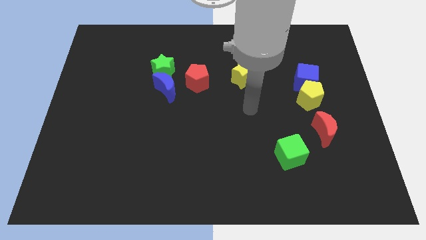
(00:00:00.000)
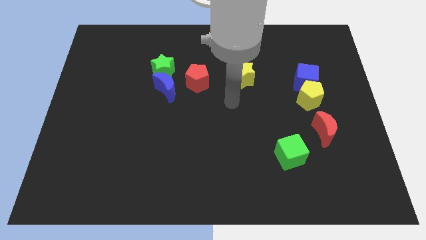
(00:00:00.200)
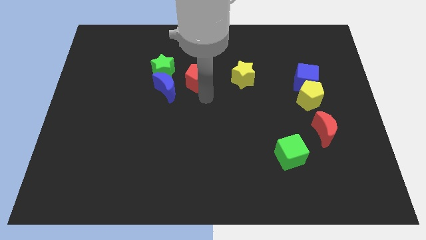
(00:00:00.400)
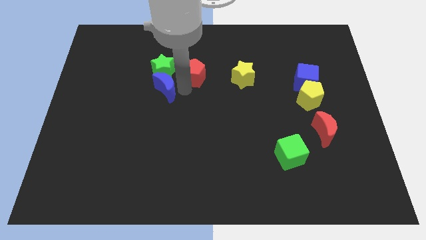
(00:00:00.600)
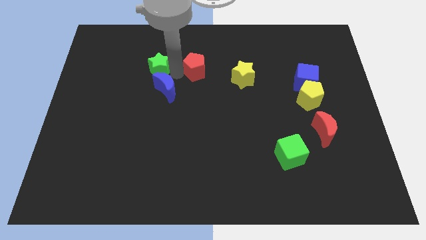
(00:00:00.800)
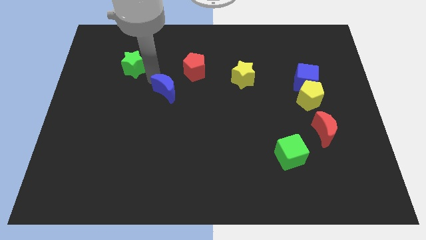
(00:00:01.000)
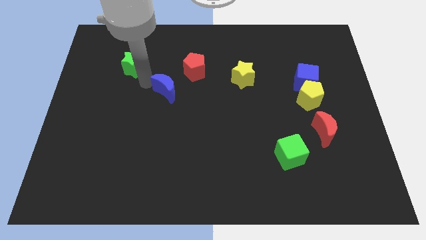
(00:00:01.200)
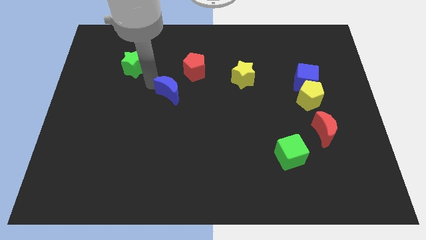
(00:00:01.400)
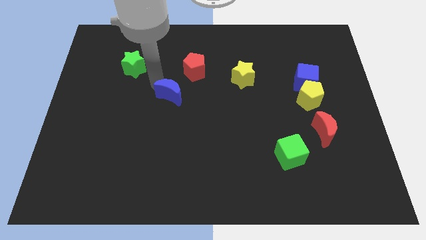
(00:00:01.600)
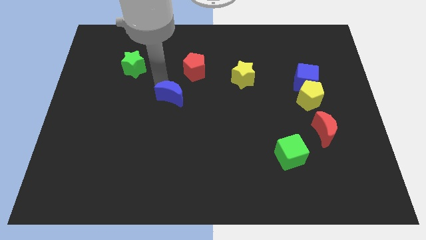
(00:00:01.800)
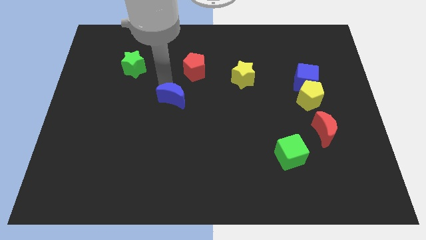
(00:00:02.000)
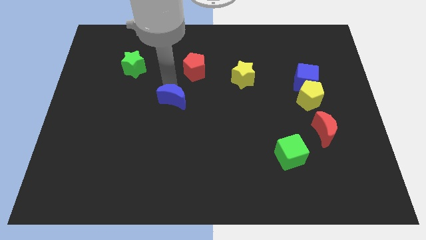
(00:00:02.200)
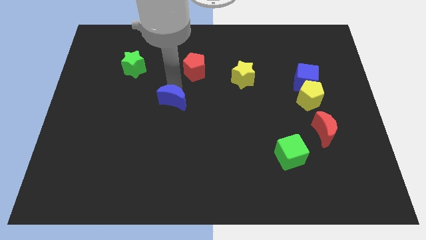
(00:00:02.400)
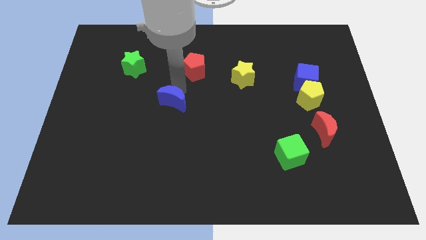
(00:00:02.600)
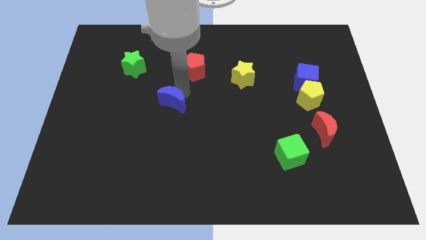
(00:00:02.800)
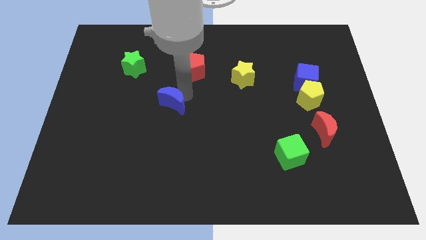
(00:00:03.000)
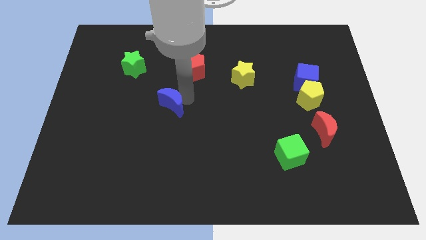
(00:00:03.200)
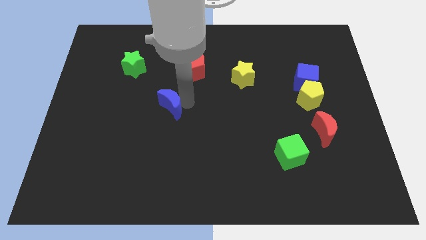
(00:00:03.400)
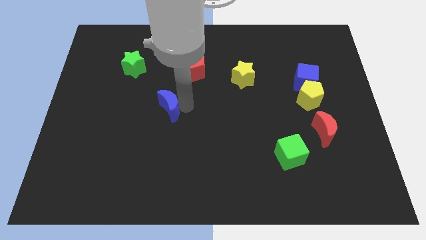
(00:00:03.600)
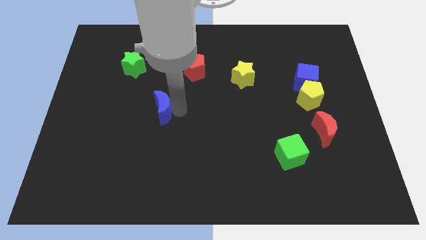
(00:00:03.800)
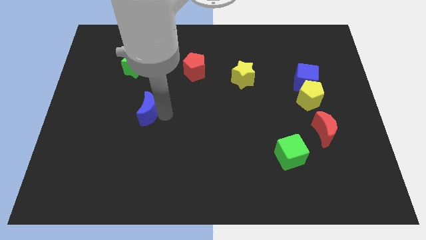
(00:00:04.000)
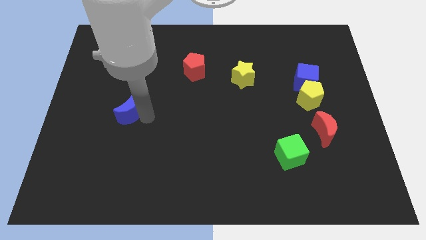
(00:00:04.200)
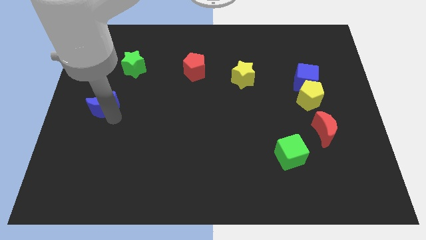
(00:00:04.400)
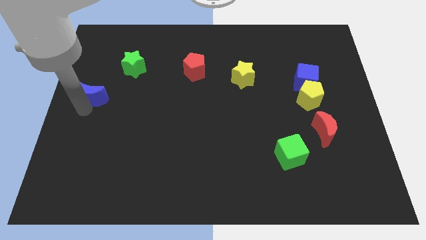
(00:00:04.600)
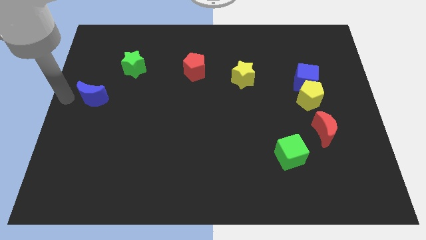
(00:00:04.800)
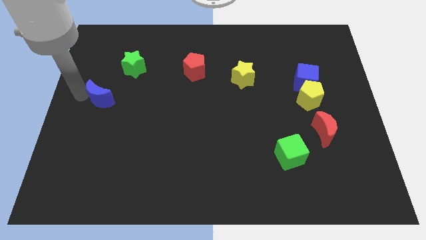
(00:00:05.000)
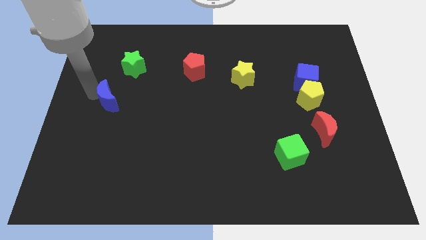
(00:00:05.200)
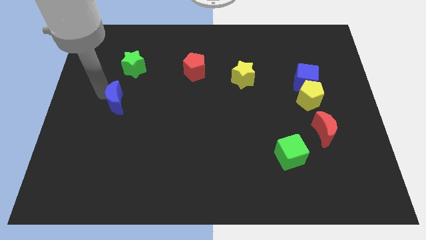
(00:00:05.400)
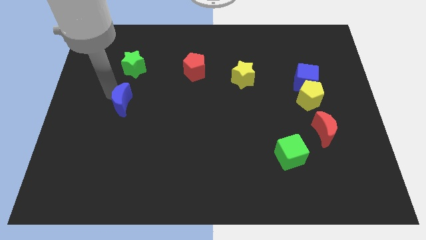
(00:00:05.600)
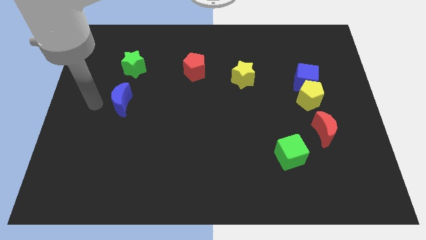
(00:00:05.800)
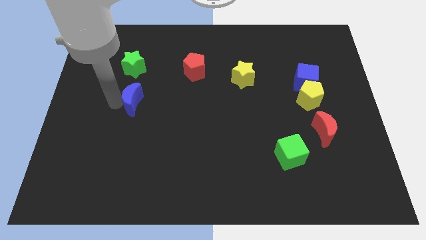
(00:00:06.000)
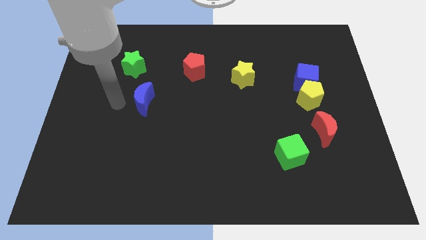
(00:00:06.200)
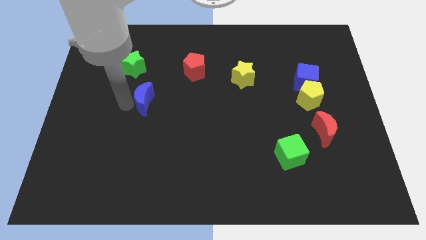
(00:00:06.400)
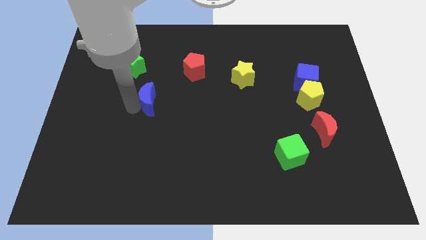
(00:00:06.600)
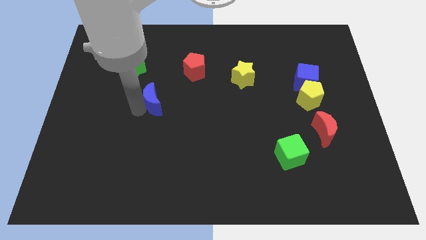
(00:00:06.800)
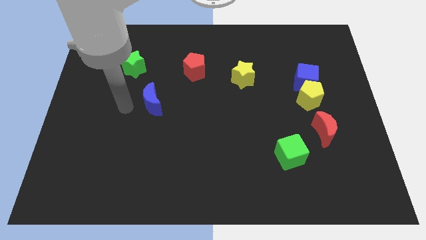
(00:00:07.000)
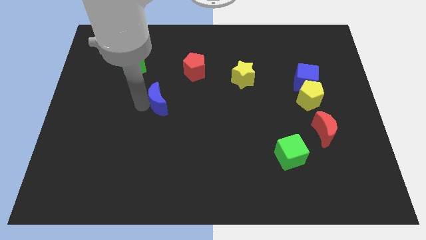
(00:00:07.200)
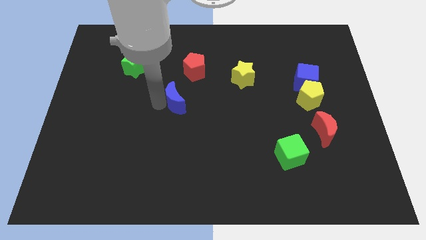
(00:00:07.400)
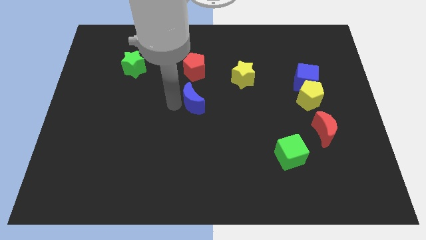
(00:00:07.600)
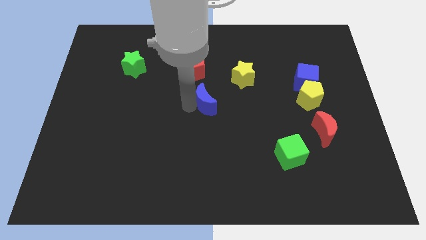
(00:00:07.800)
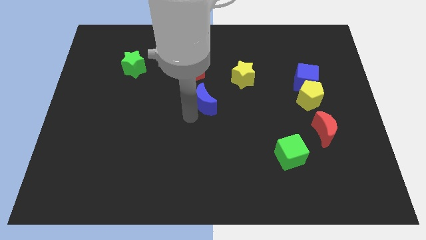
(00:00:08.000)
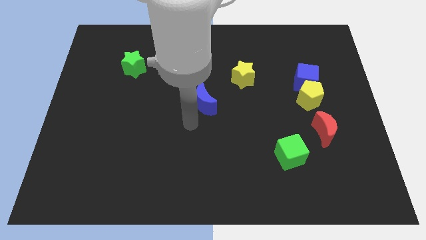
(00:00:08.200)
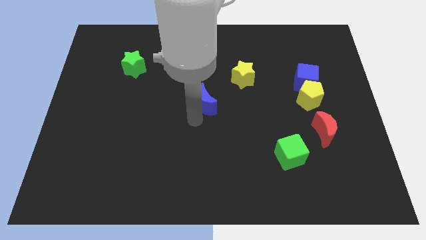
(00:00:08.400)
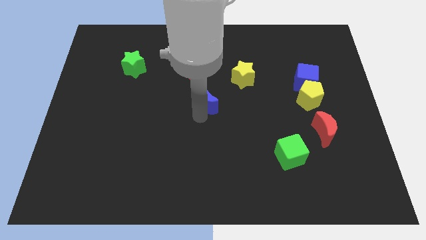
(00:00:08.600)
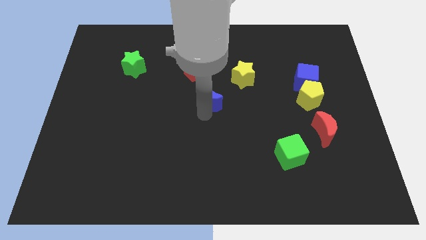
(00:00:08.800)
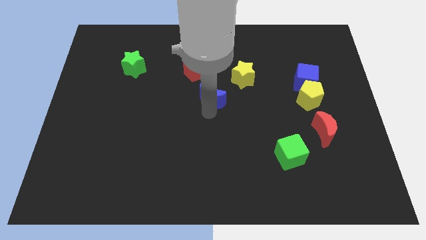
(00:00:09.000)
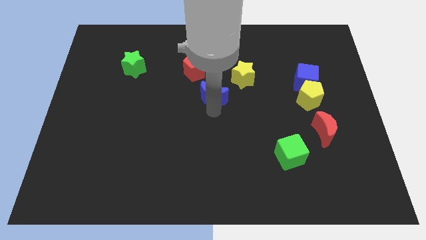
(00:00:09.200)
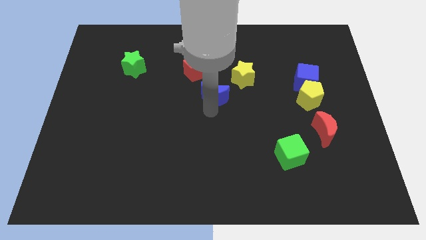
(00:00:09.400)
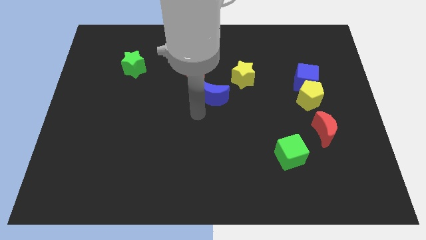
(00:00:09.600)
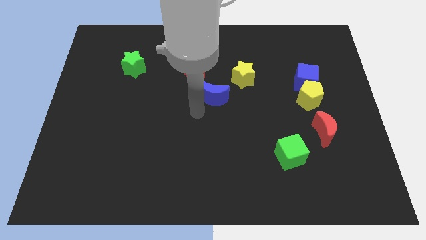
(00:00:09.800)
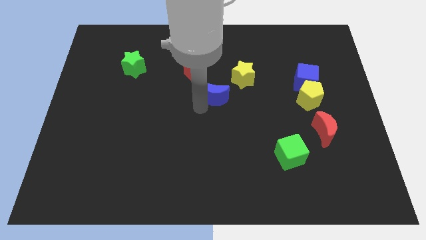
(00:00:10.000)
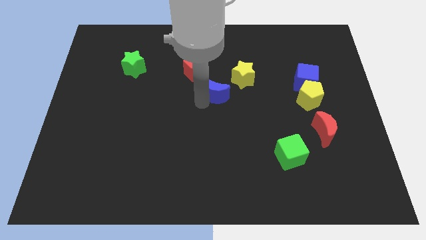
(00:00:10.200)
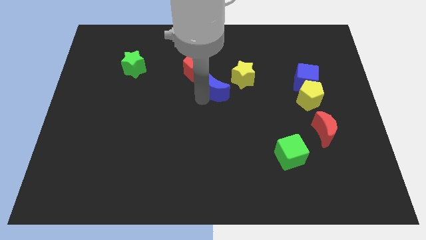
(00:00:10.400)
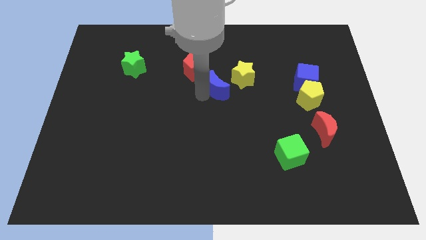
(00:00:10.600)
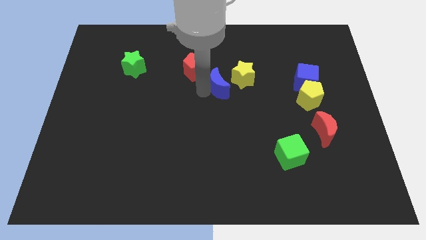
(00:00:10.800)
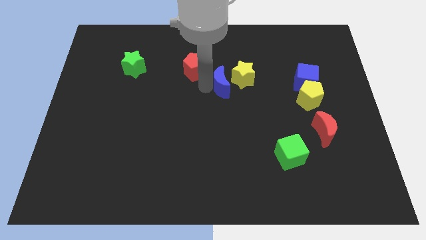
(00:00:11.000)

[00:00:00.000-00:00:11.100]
move the blue moon close to the yellow star
